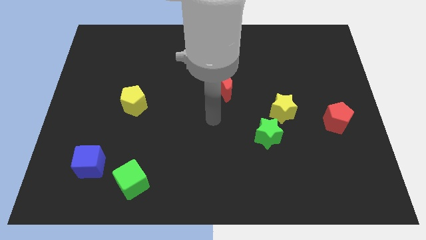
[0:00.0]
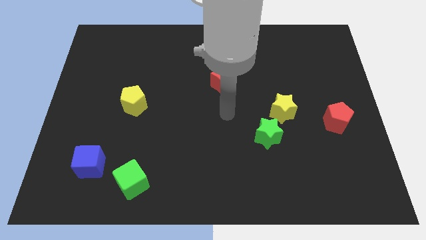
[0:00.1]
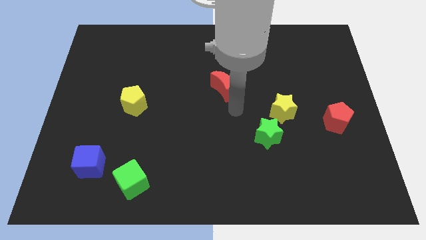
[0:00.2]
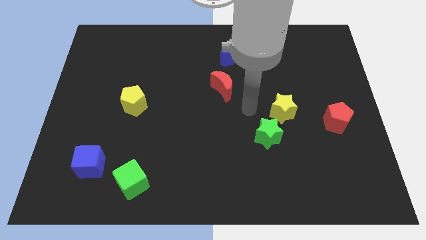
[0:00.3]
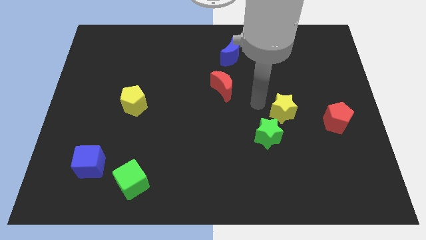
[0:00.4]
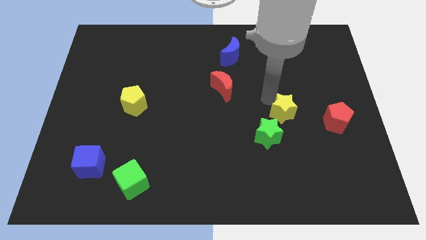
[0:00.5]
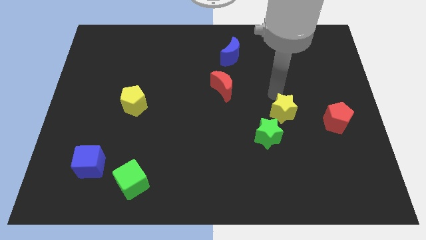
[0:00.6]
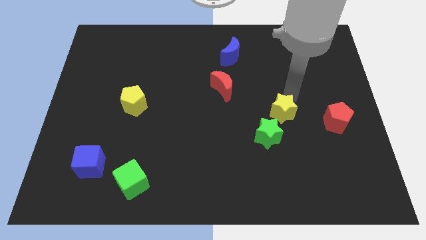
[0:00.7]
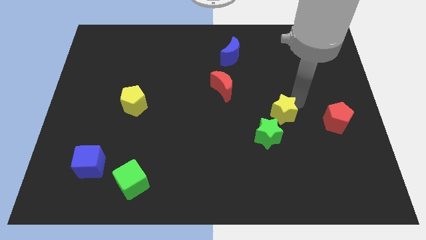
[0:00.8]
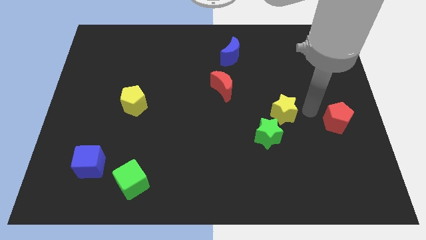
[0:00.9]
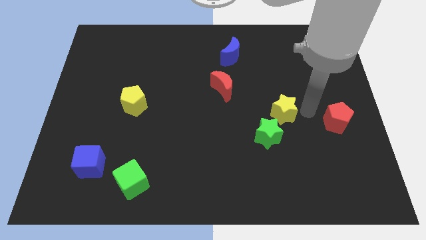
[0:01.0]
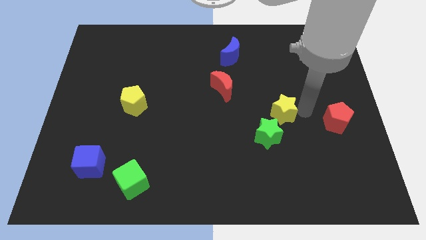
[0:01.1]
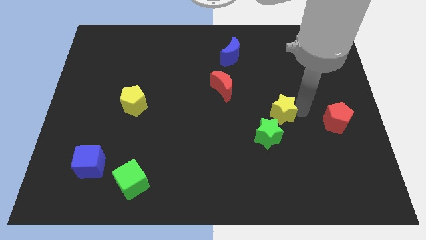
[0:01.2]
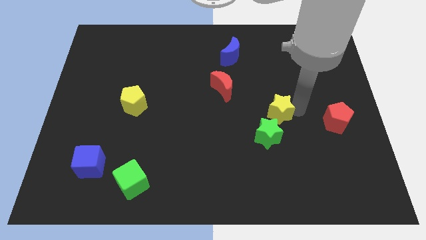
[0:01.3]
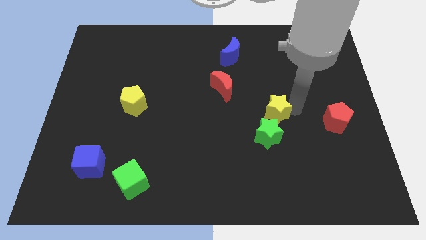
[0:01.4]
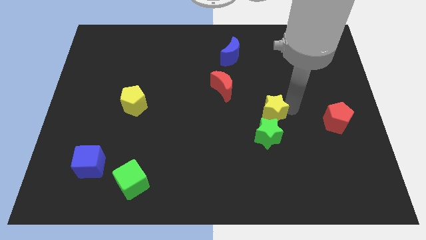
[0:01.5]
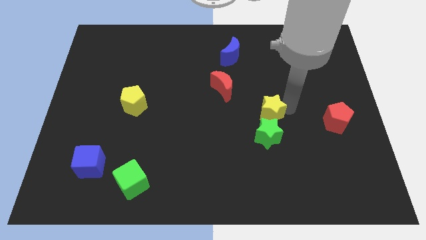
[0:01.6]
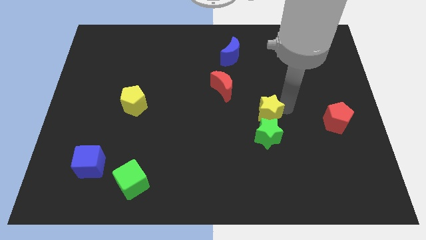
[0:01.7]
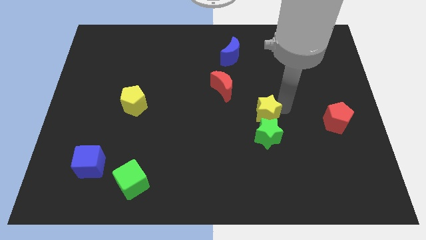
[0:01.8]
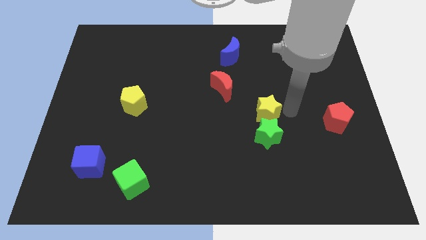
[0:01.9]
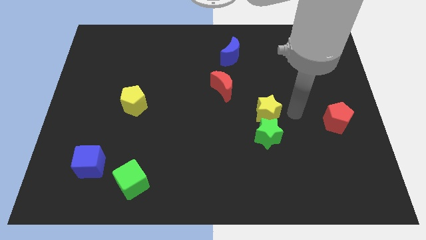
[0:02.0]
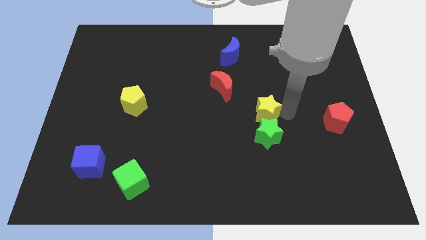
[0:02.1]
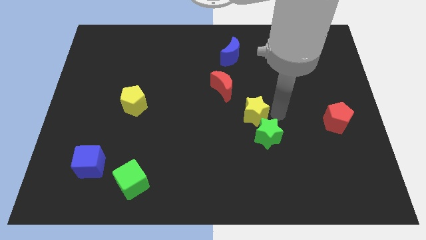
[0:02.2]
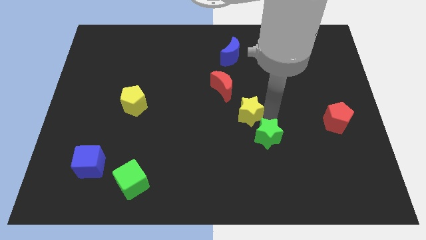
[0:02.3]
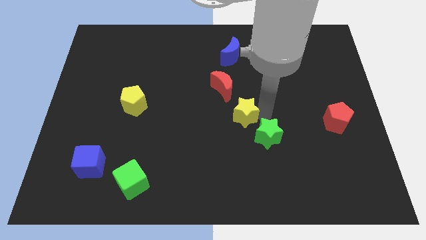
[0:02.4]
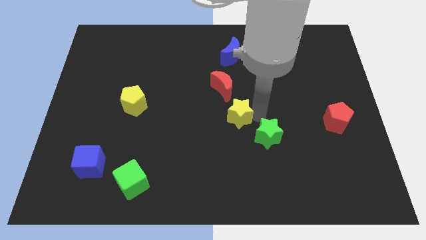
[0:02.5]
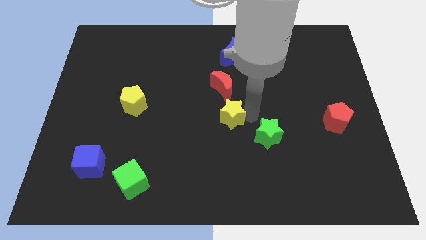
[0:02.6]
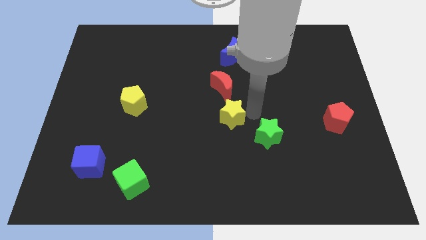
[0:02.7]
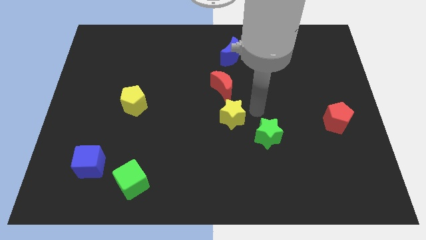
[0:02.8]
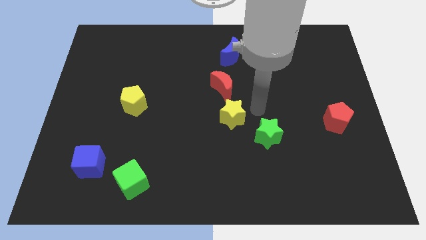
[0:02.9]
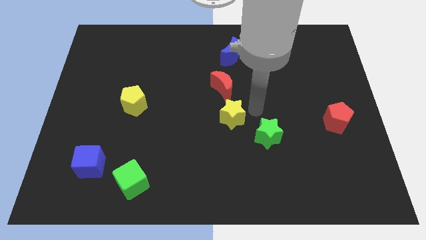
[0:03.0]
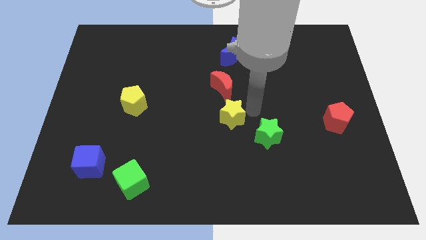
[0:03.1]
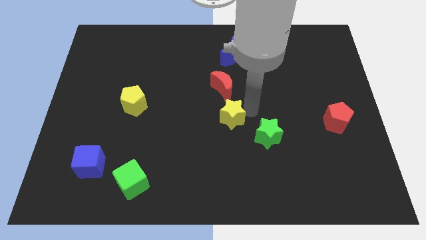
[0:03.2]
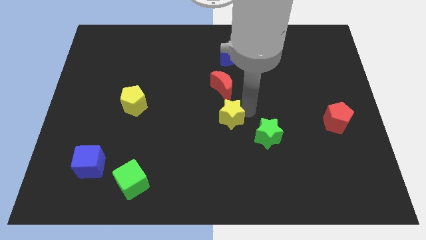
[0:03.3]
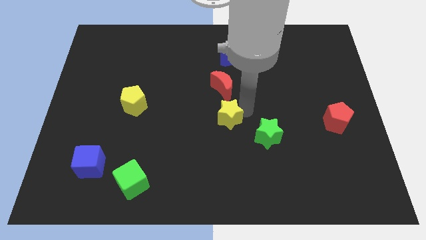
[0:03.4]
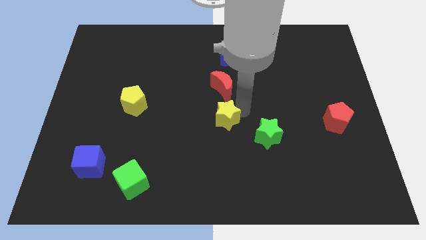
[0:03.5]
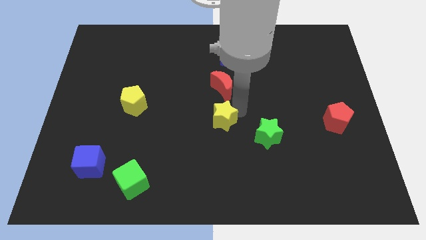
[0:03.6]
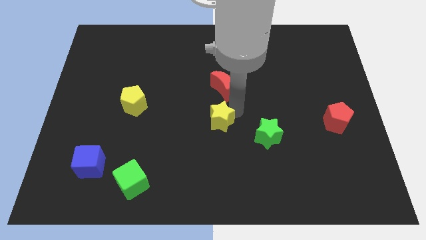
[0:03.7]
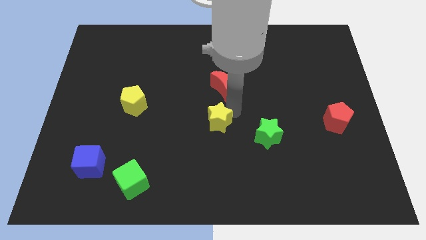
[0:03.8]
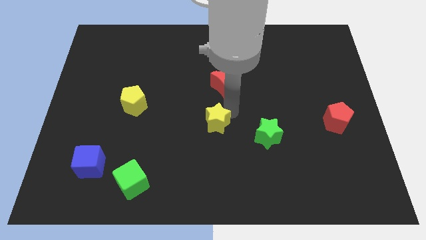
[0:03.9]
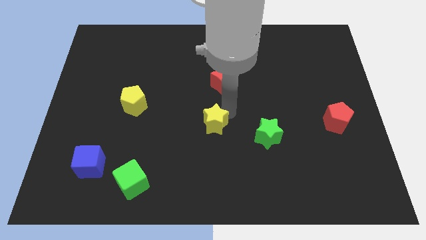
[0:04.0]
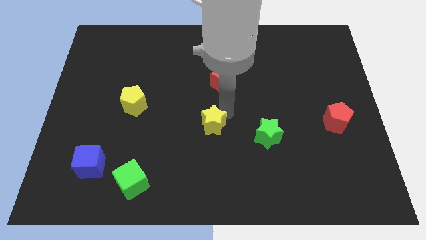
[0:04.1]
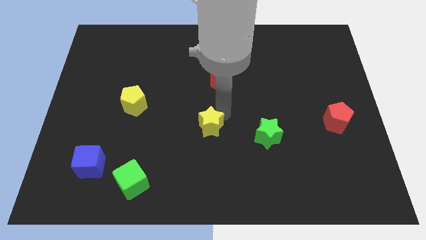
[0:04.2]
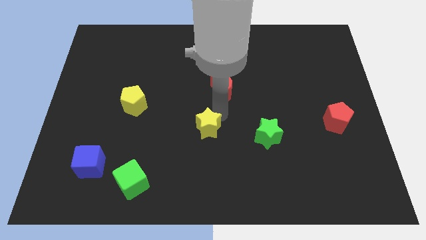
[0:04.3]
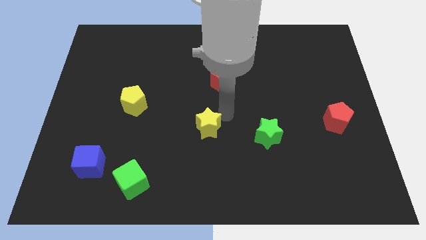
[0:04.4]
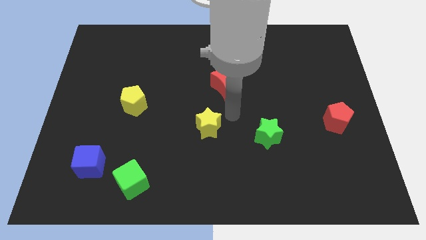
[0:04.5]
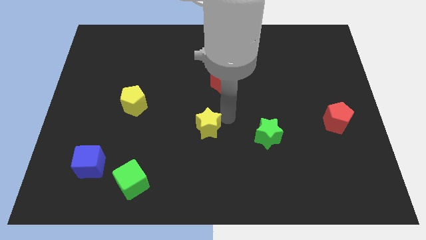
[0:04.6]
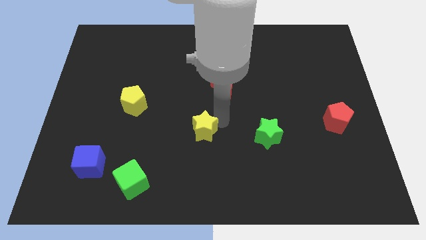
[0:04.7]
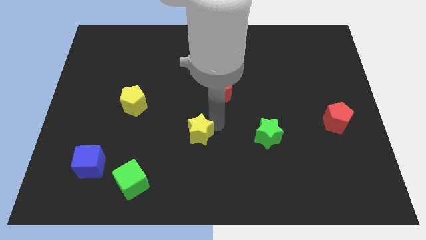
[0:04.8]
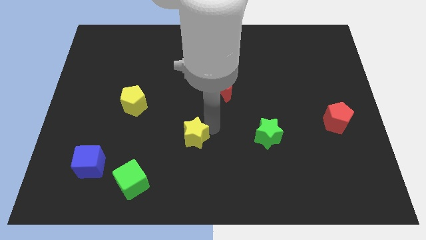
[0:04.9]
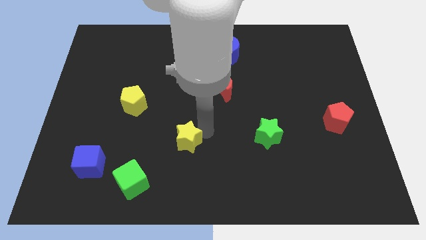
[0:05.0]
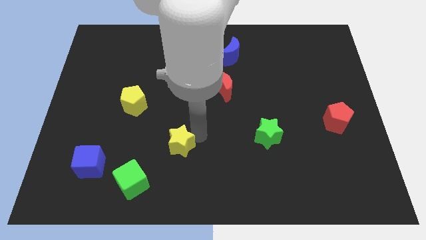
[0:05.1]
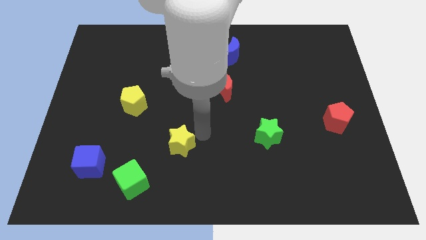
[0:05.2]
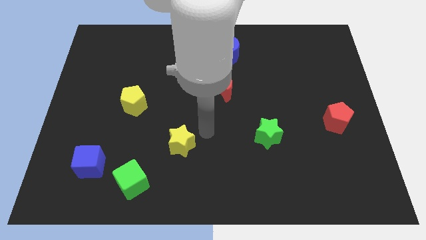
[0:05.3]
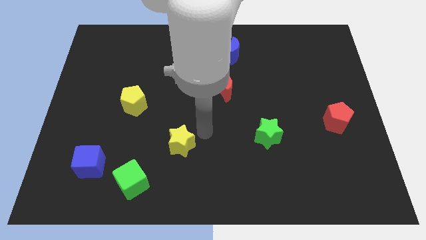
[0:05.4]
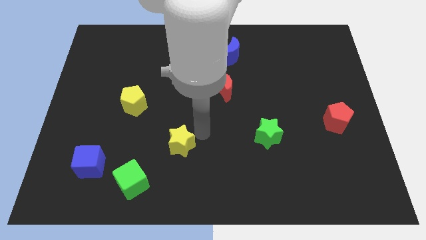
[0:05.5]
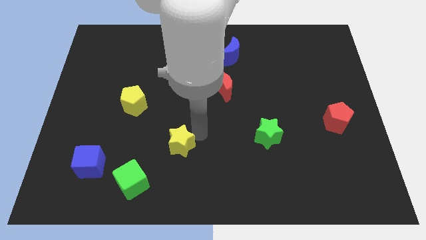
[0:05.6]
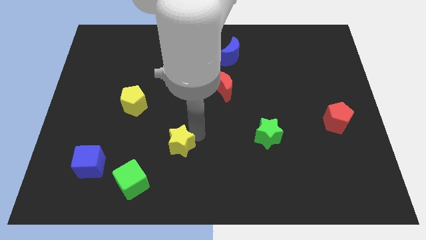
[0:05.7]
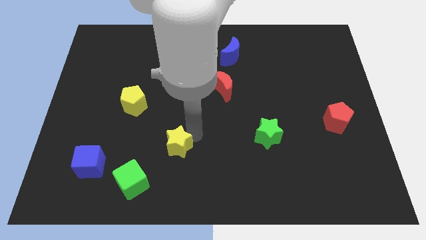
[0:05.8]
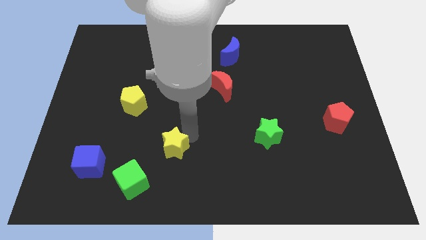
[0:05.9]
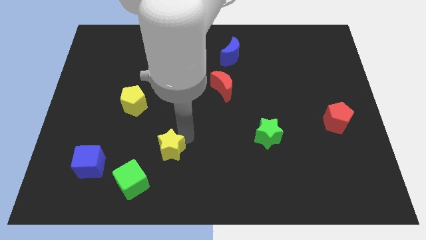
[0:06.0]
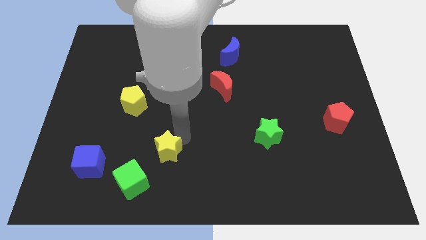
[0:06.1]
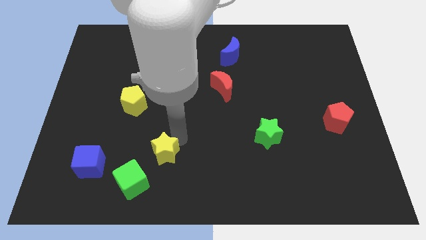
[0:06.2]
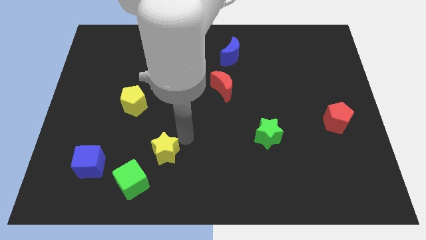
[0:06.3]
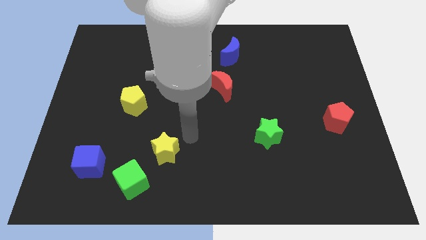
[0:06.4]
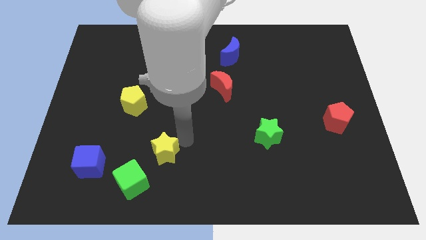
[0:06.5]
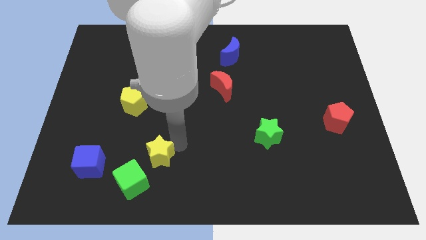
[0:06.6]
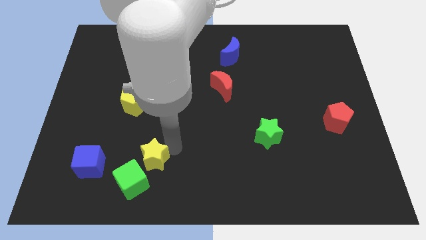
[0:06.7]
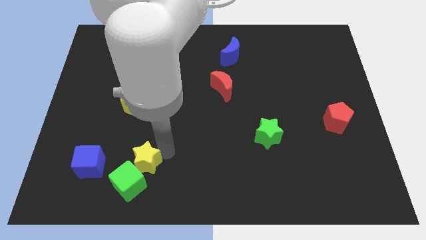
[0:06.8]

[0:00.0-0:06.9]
move the yellow star to the green cube
